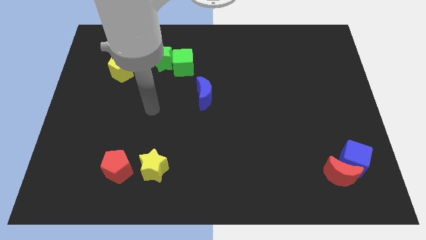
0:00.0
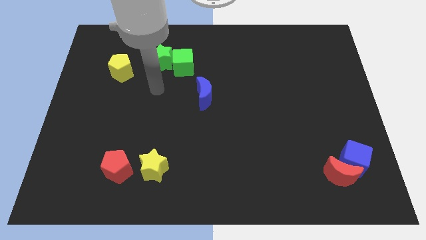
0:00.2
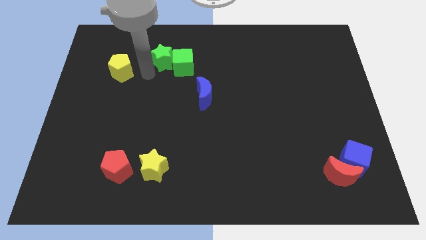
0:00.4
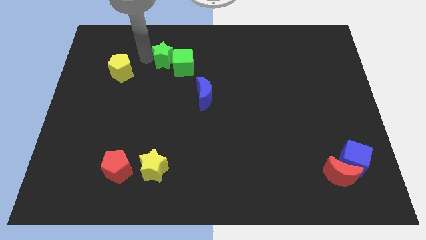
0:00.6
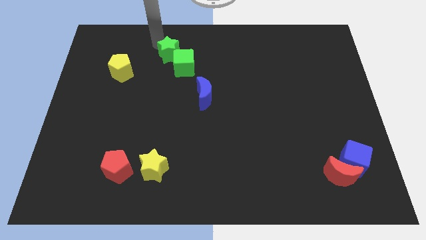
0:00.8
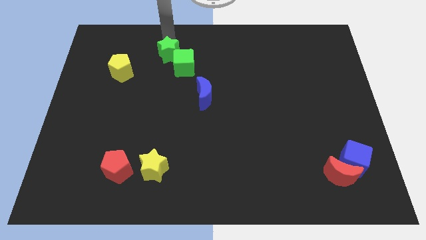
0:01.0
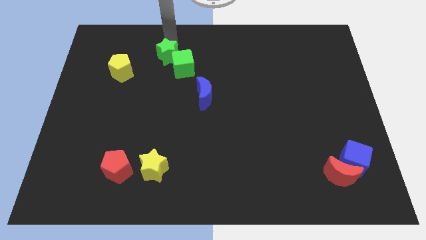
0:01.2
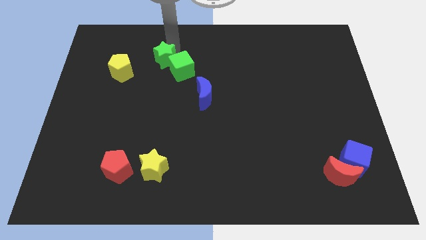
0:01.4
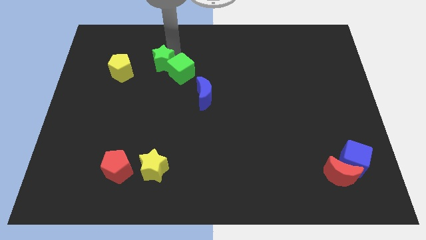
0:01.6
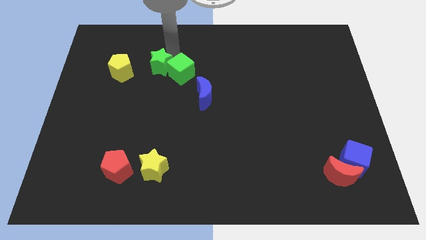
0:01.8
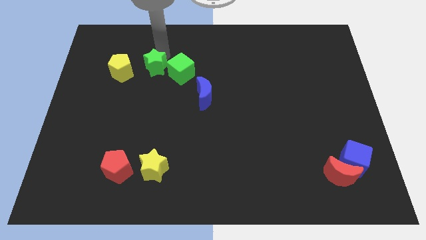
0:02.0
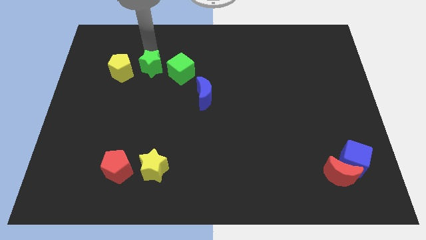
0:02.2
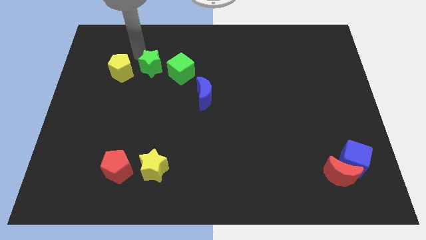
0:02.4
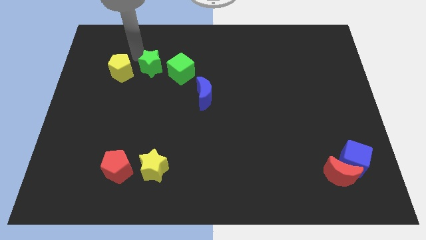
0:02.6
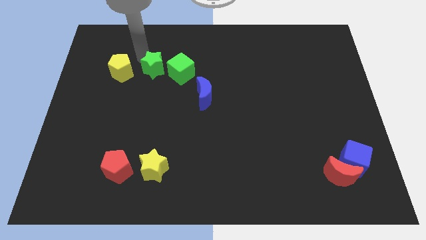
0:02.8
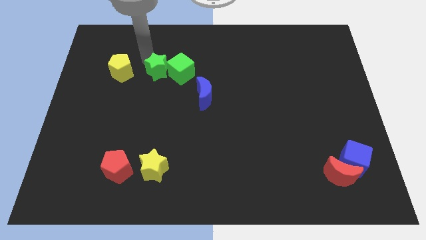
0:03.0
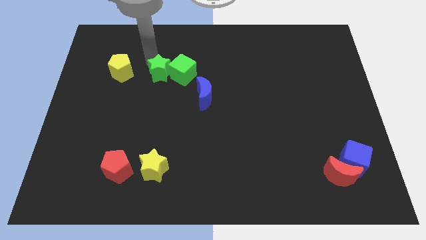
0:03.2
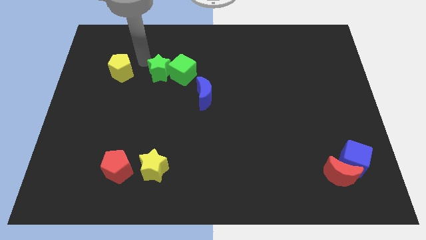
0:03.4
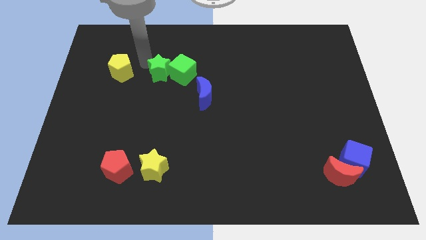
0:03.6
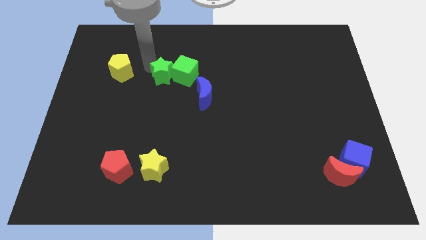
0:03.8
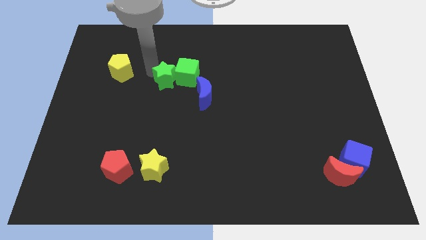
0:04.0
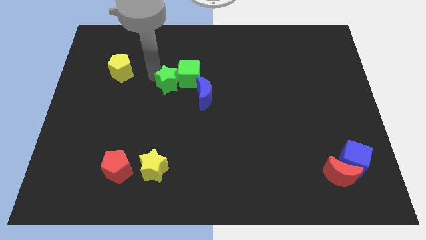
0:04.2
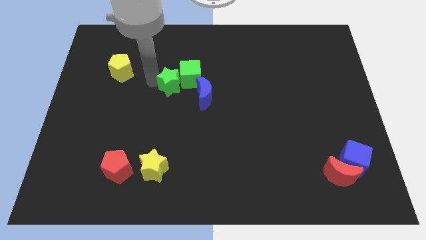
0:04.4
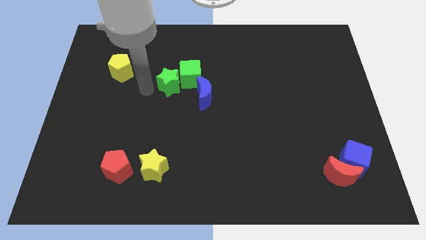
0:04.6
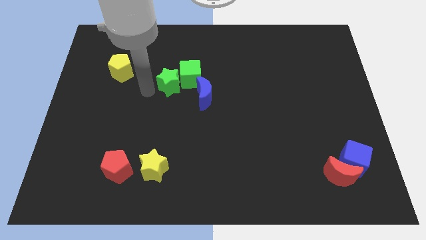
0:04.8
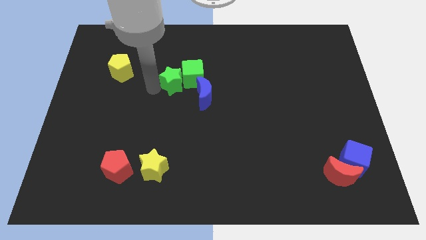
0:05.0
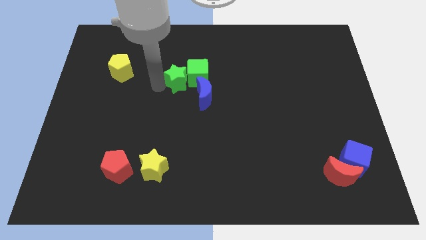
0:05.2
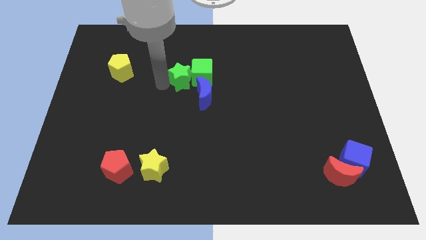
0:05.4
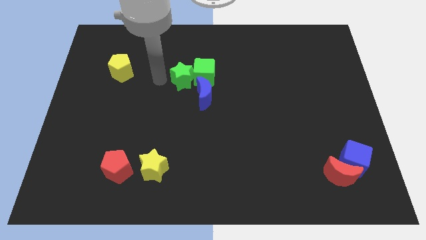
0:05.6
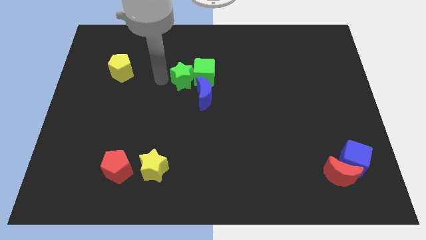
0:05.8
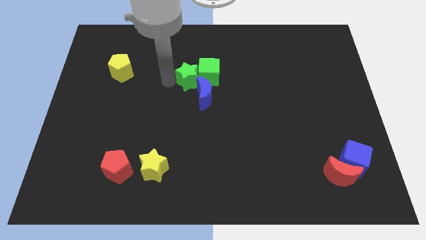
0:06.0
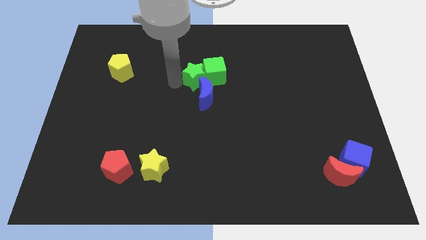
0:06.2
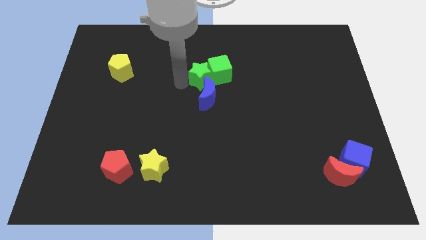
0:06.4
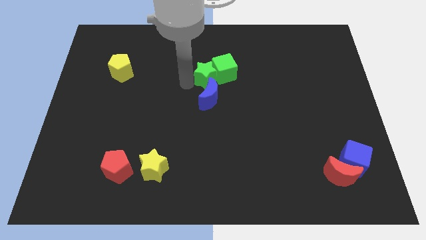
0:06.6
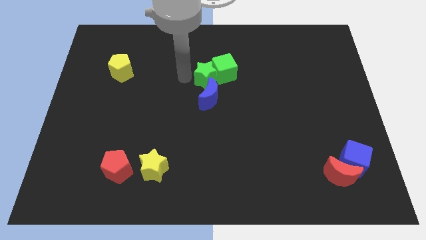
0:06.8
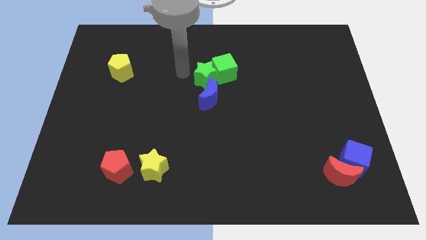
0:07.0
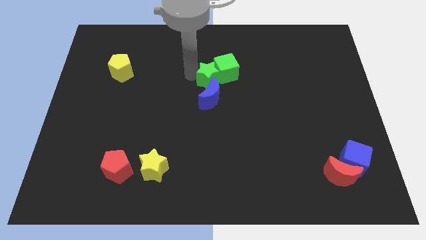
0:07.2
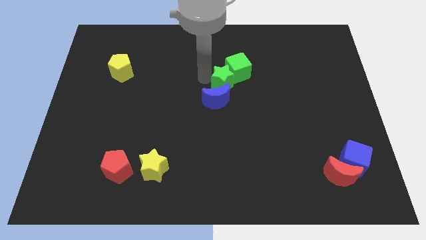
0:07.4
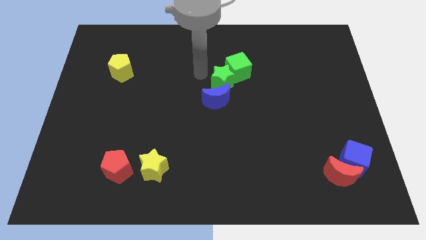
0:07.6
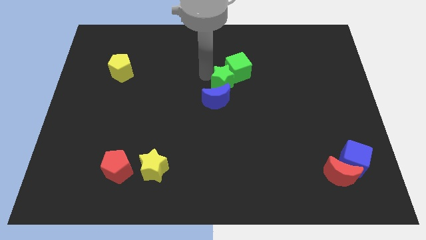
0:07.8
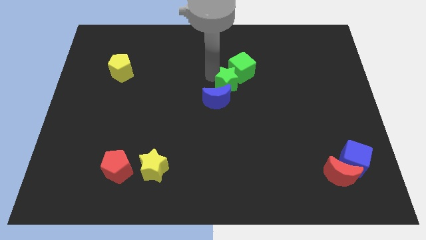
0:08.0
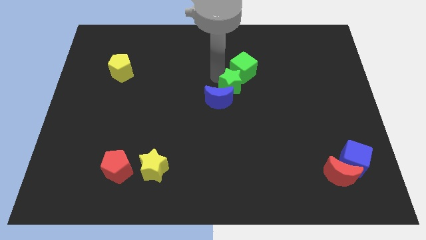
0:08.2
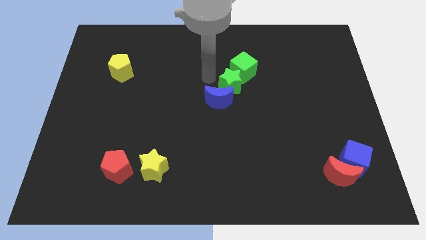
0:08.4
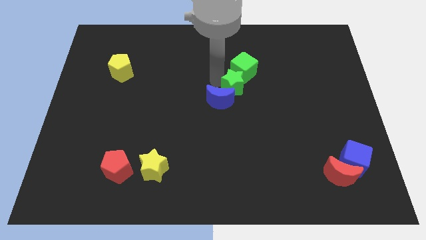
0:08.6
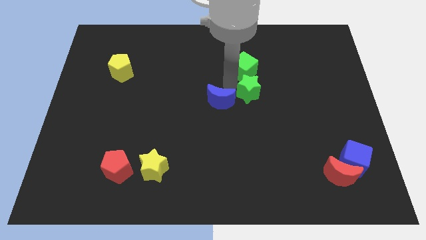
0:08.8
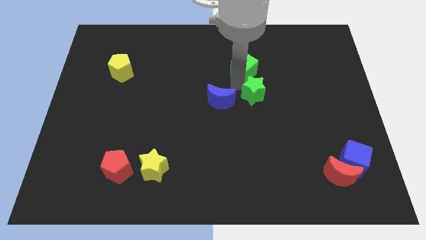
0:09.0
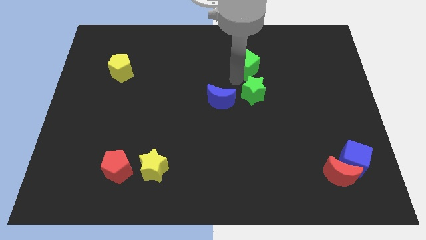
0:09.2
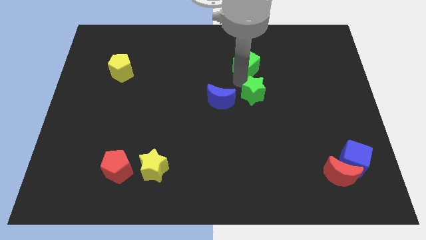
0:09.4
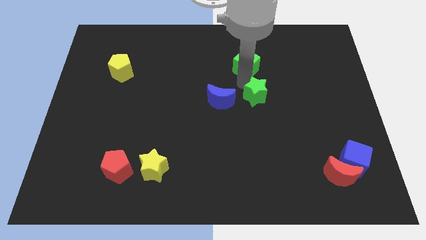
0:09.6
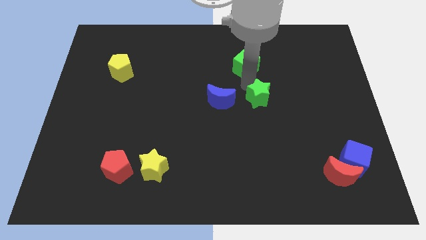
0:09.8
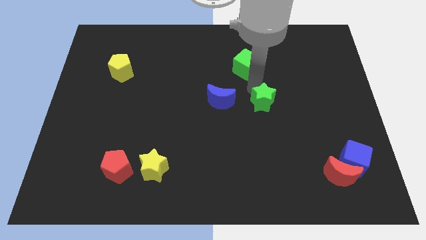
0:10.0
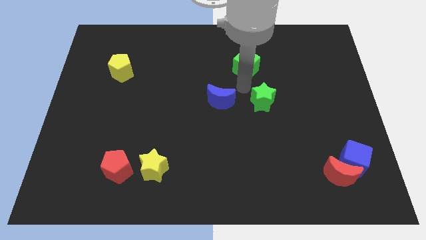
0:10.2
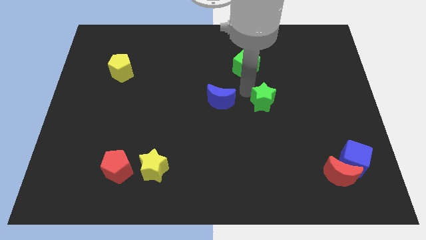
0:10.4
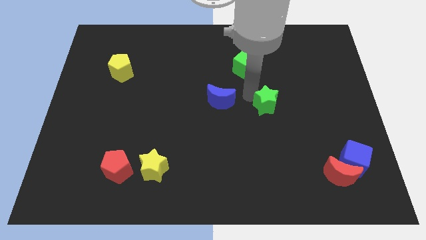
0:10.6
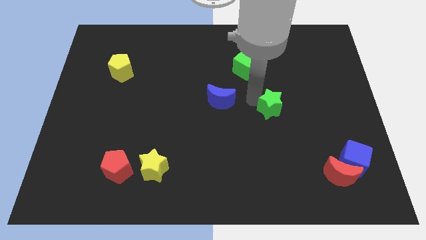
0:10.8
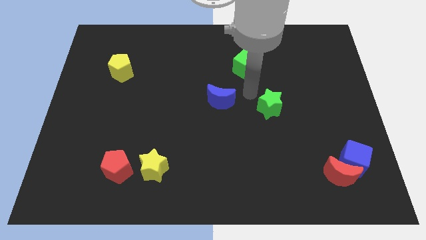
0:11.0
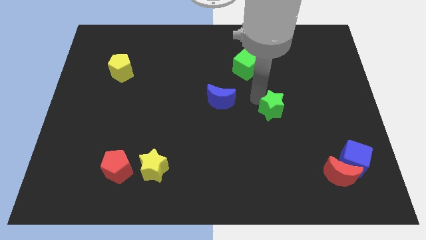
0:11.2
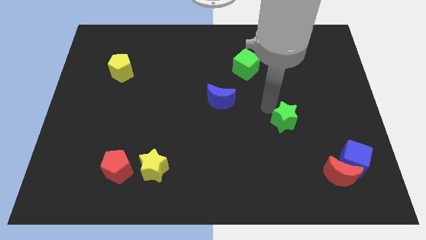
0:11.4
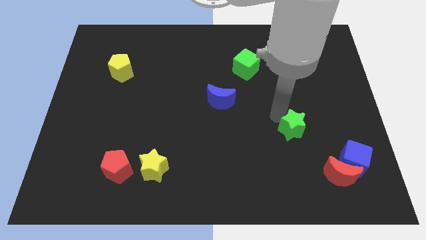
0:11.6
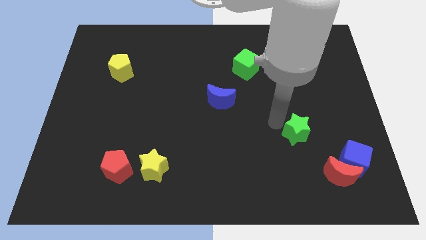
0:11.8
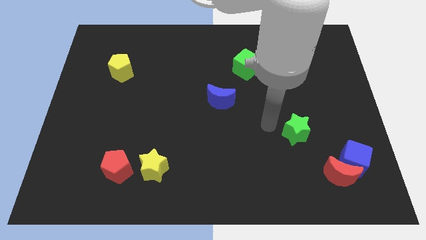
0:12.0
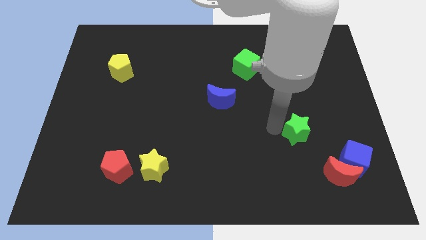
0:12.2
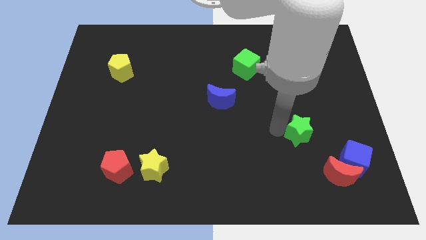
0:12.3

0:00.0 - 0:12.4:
push the green star to the top left side of the blue cube
